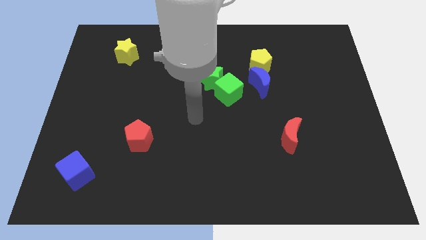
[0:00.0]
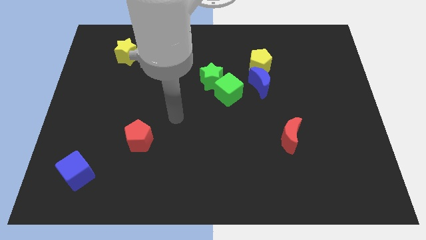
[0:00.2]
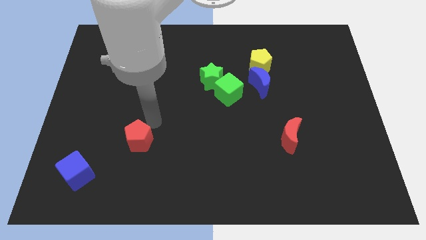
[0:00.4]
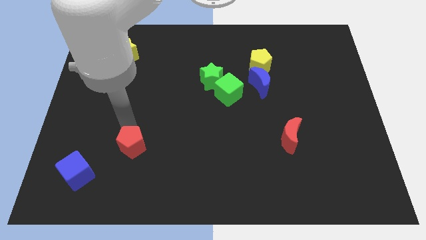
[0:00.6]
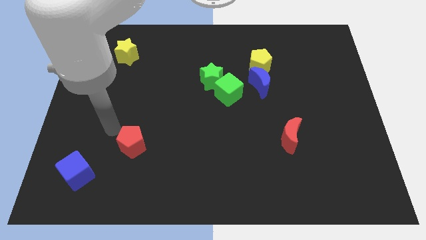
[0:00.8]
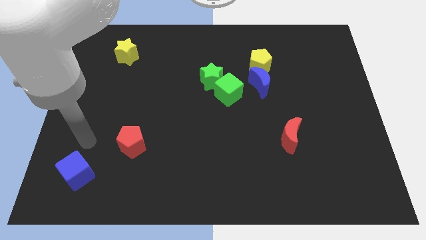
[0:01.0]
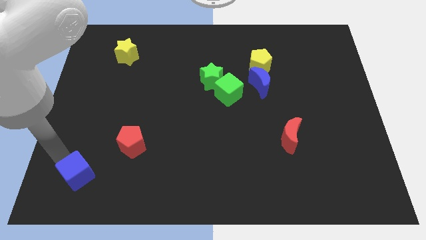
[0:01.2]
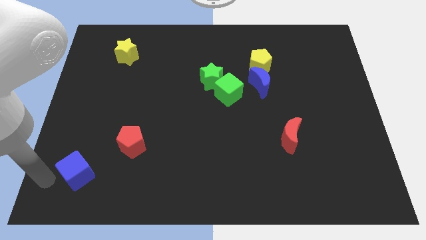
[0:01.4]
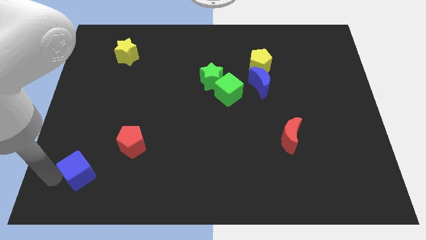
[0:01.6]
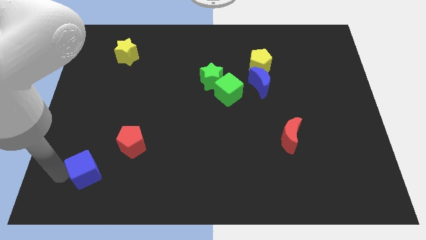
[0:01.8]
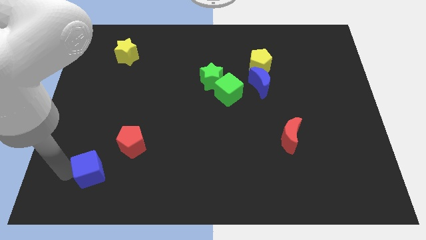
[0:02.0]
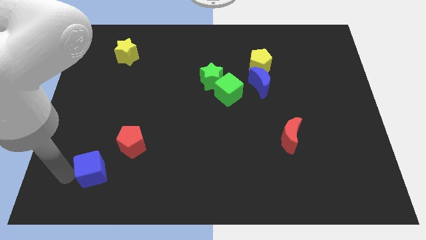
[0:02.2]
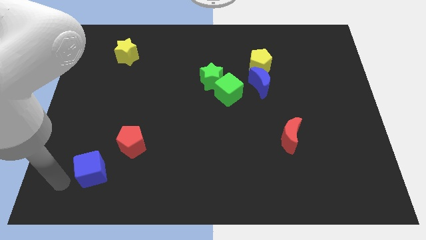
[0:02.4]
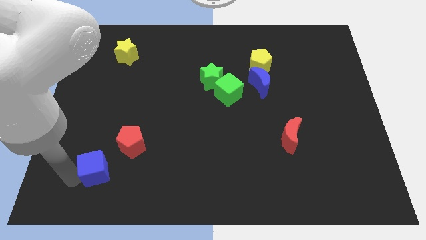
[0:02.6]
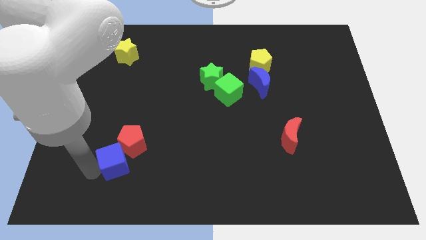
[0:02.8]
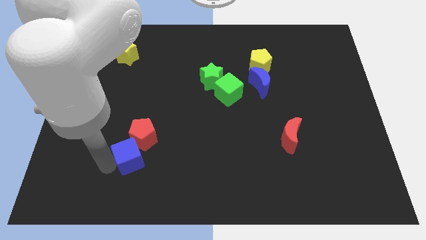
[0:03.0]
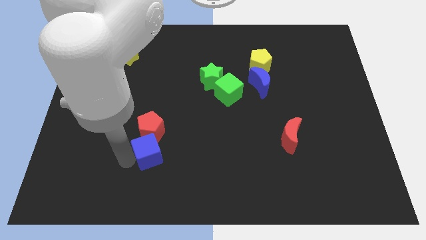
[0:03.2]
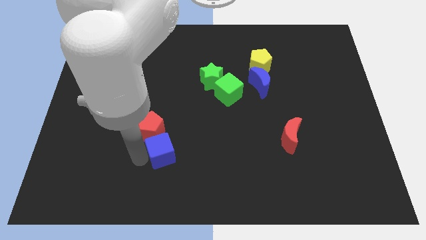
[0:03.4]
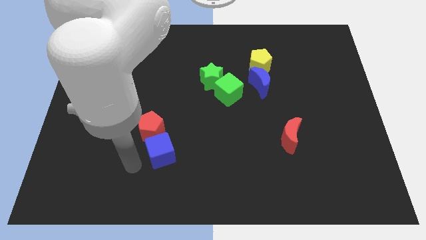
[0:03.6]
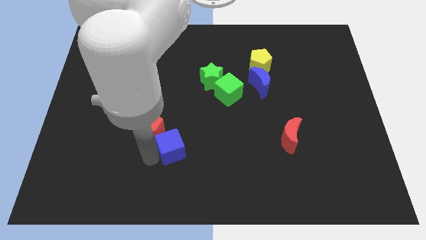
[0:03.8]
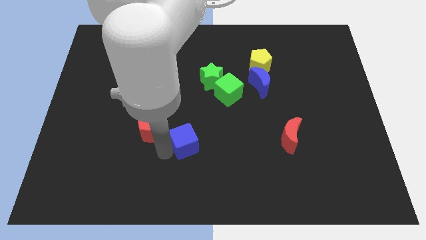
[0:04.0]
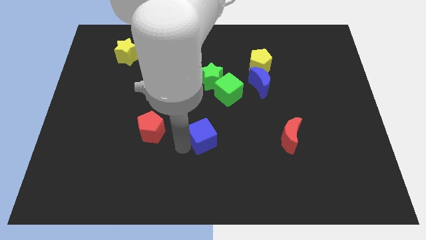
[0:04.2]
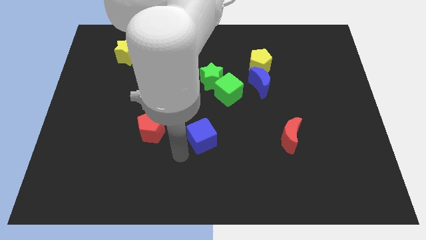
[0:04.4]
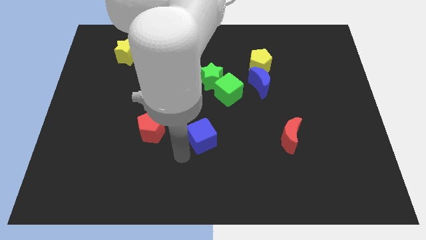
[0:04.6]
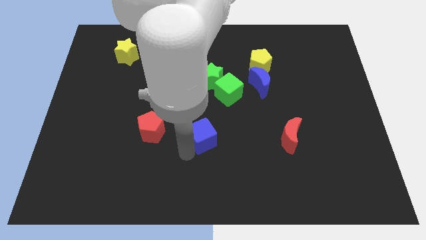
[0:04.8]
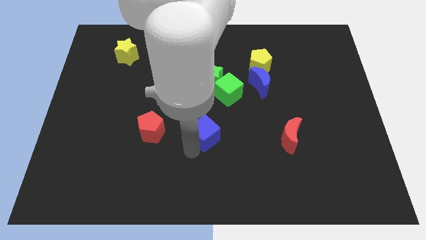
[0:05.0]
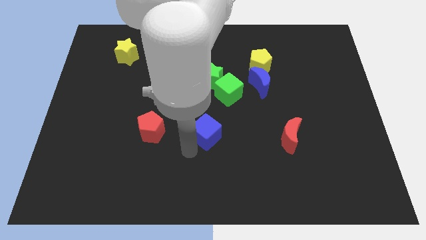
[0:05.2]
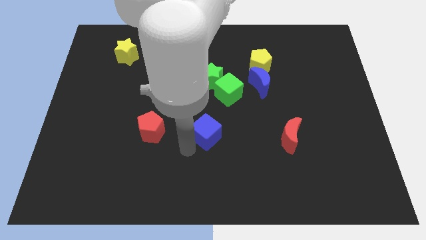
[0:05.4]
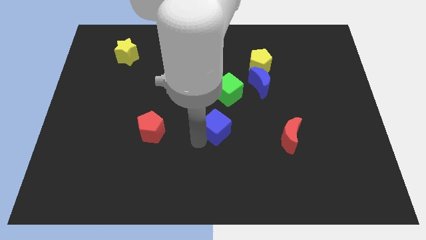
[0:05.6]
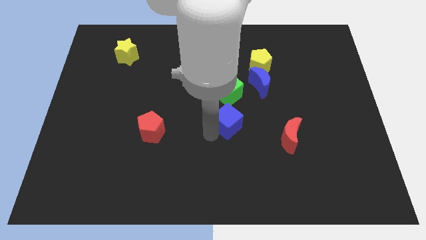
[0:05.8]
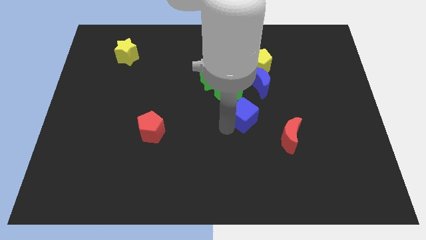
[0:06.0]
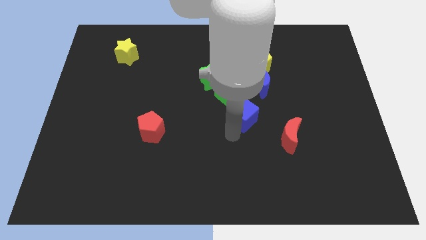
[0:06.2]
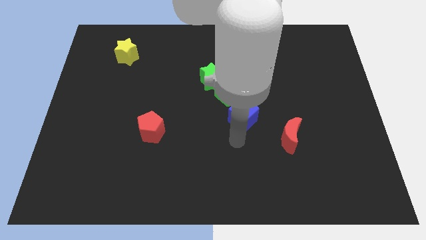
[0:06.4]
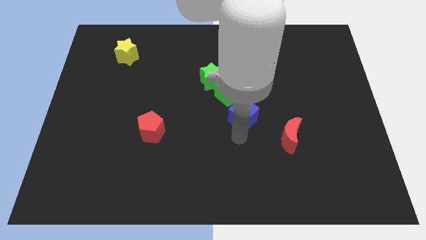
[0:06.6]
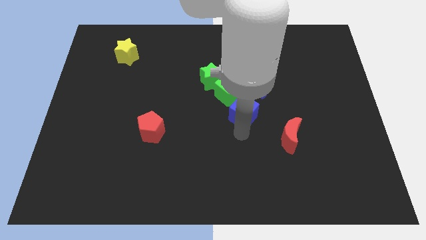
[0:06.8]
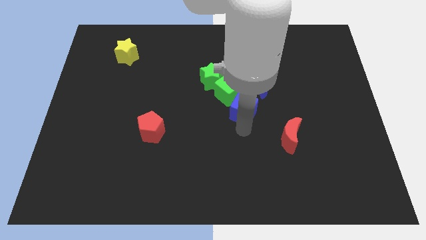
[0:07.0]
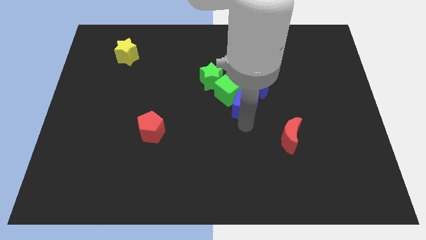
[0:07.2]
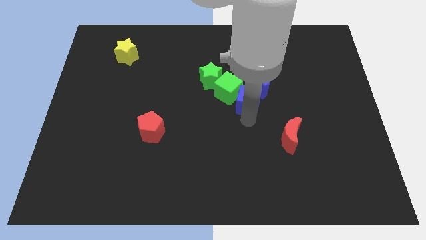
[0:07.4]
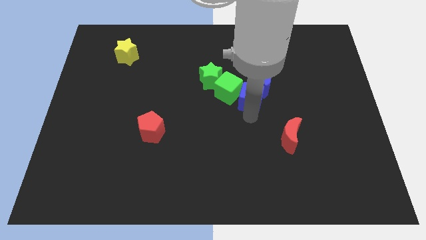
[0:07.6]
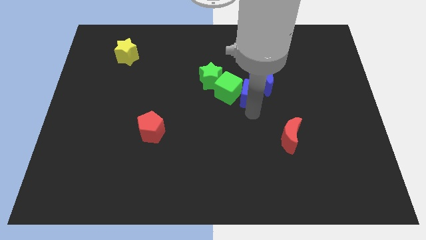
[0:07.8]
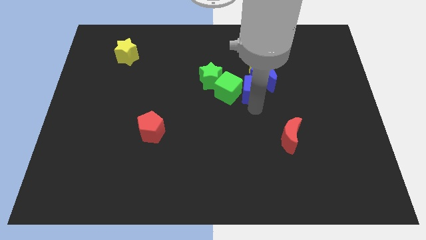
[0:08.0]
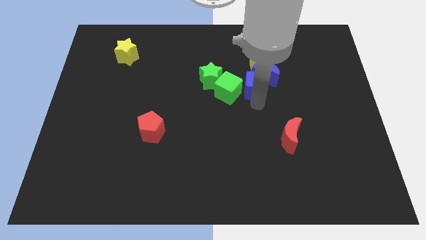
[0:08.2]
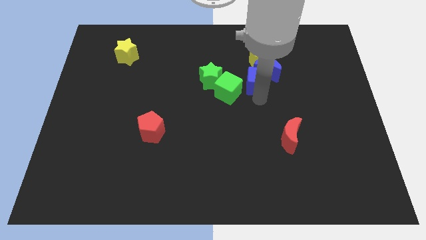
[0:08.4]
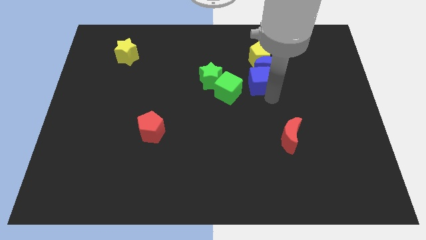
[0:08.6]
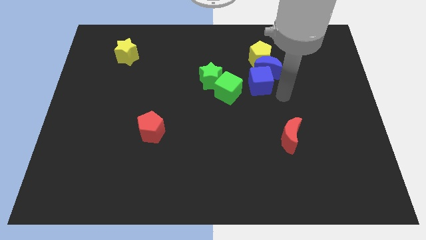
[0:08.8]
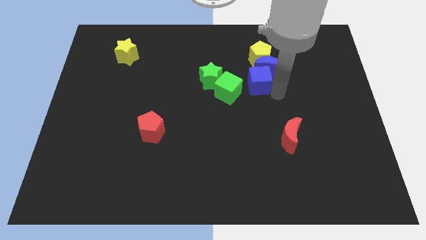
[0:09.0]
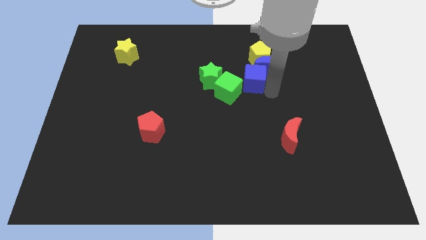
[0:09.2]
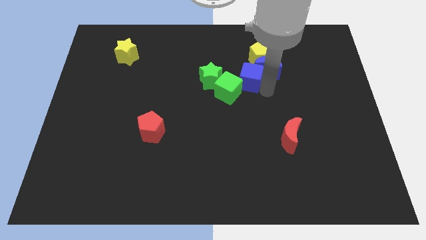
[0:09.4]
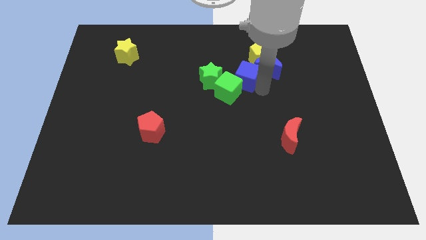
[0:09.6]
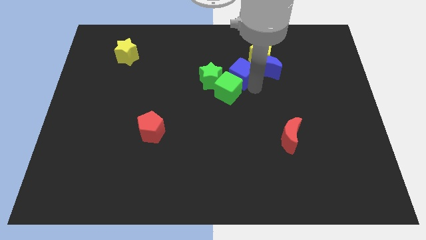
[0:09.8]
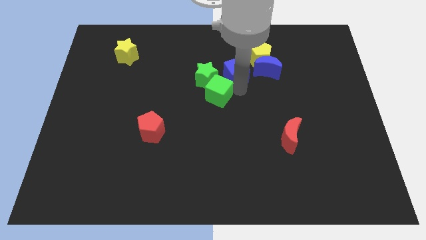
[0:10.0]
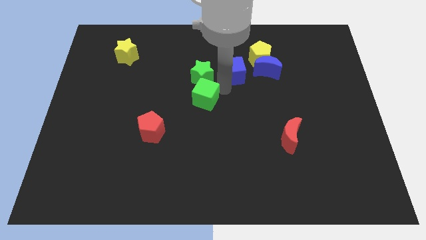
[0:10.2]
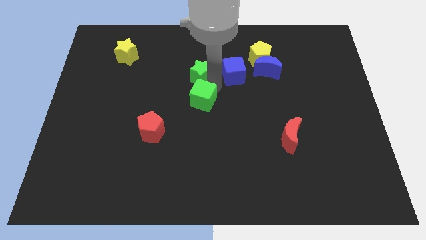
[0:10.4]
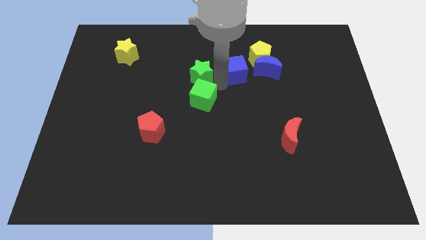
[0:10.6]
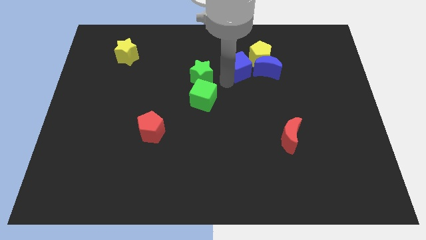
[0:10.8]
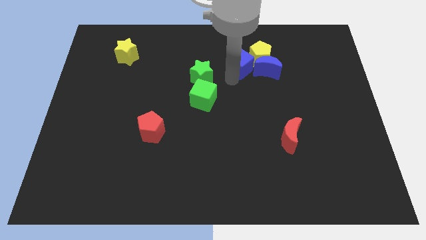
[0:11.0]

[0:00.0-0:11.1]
move the blue cube close to the yellow pentagon

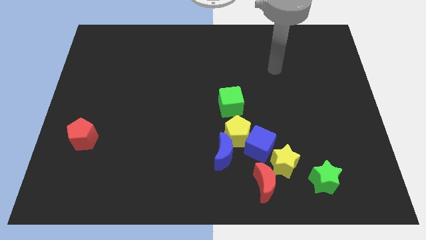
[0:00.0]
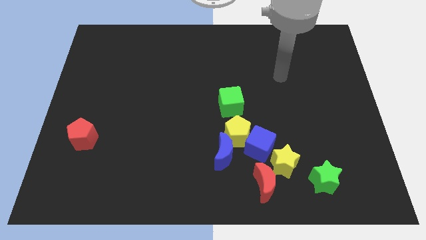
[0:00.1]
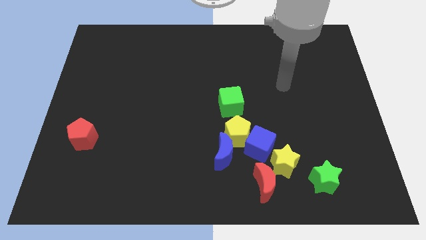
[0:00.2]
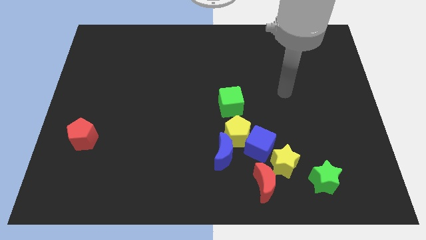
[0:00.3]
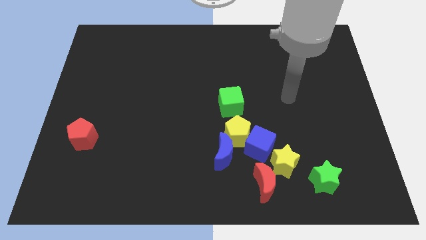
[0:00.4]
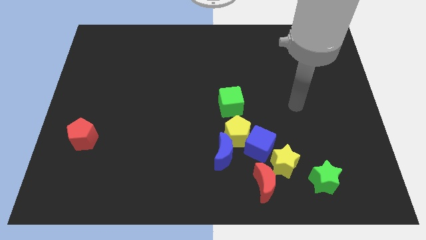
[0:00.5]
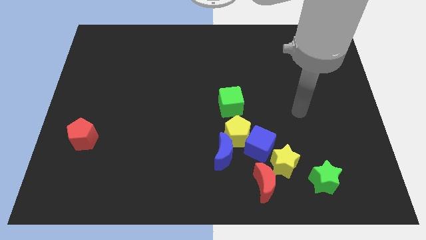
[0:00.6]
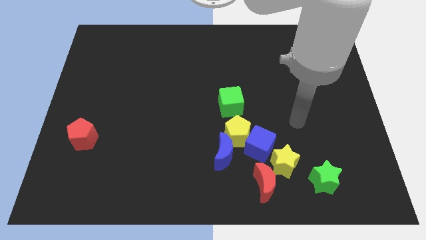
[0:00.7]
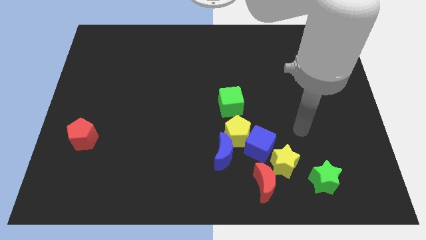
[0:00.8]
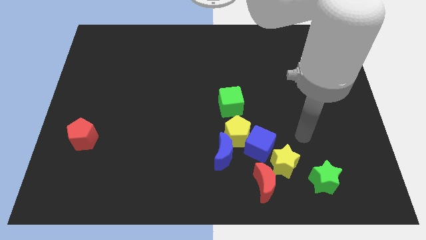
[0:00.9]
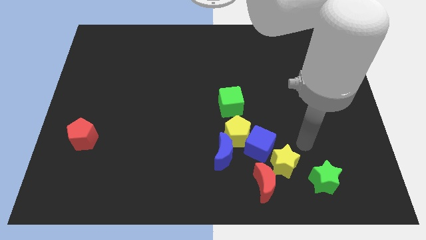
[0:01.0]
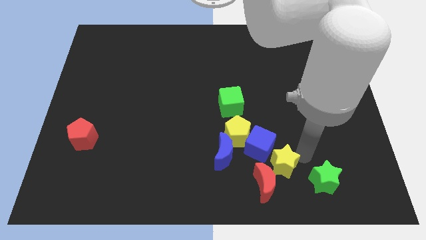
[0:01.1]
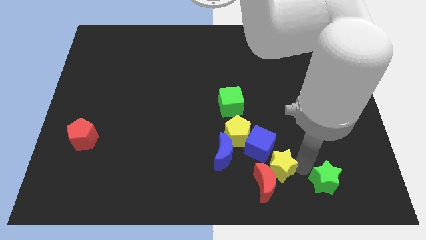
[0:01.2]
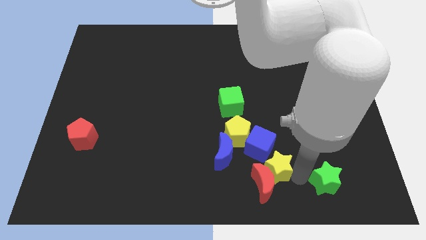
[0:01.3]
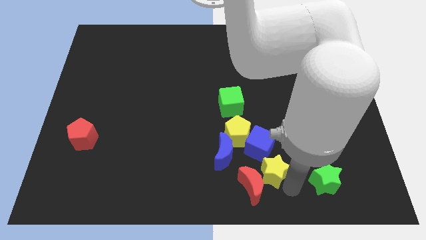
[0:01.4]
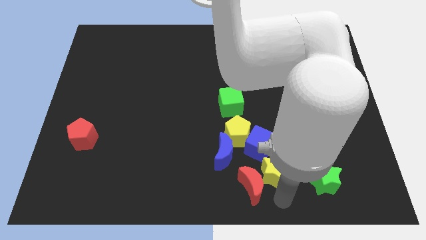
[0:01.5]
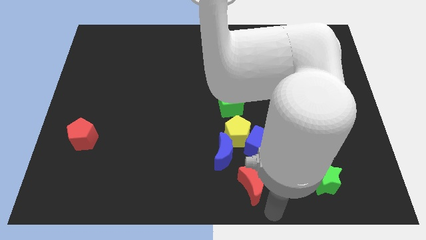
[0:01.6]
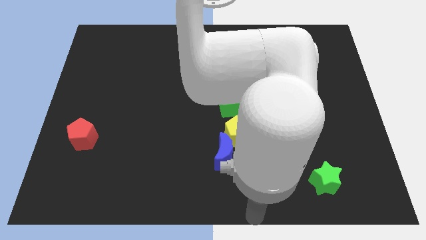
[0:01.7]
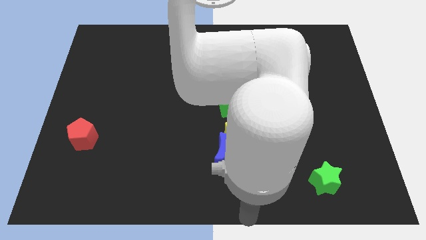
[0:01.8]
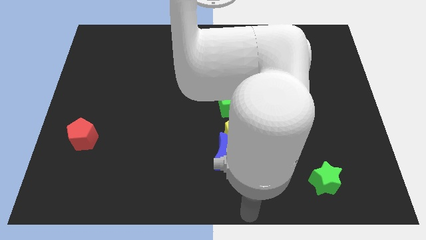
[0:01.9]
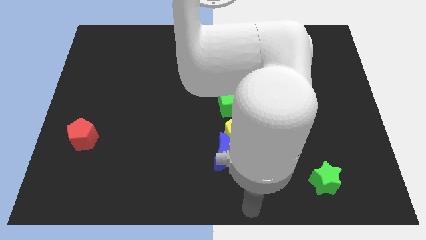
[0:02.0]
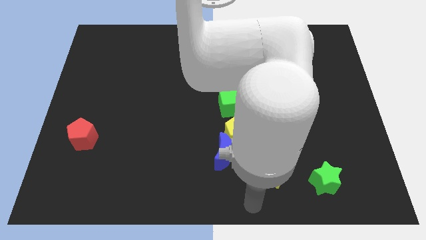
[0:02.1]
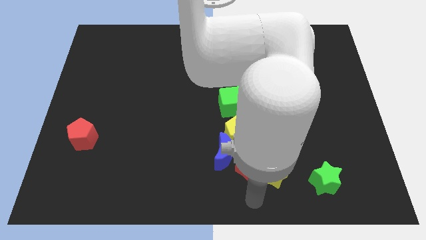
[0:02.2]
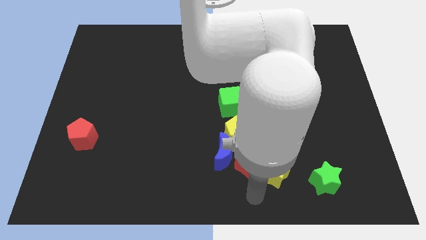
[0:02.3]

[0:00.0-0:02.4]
slide the red moon close to the blue cube
